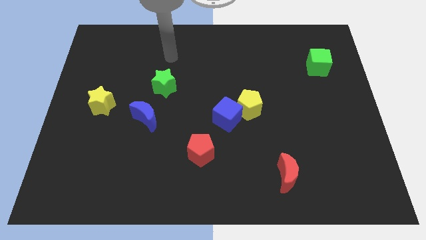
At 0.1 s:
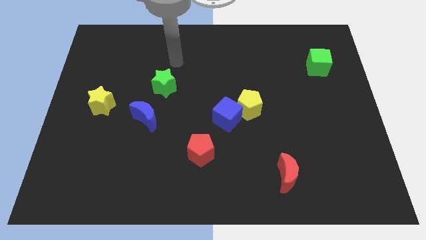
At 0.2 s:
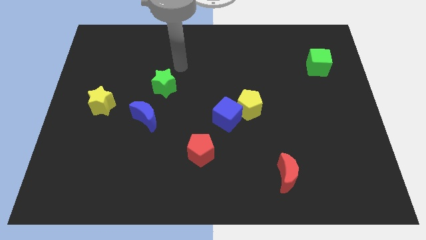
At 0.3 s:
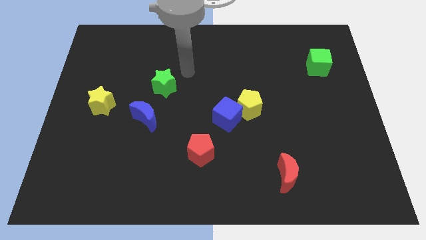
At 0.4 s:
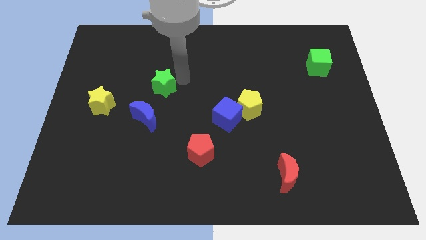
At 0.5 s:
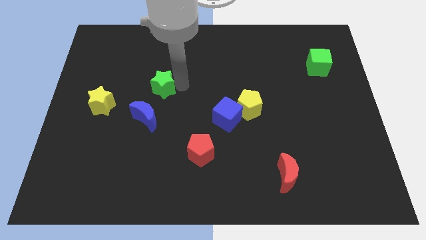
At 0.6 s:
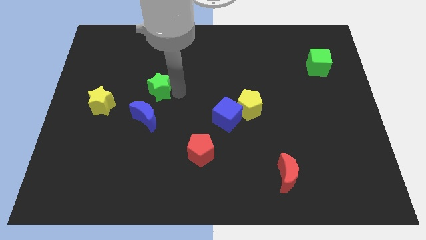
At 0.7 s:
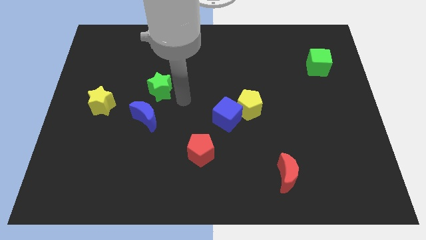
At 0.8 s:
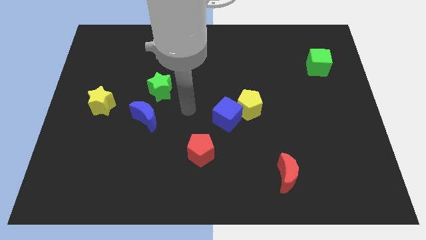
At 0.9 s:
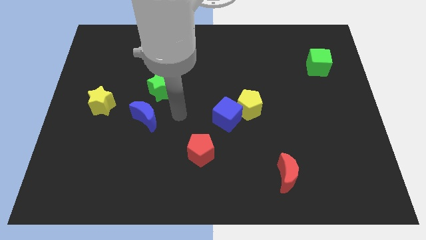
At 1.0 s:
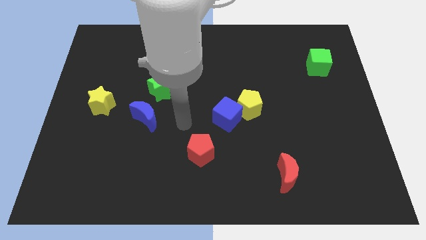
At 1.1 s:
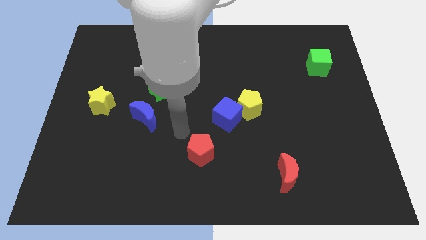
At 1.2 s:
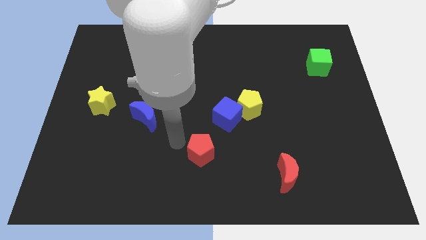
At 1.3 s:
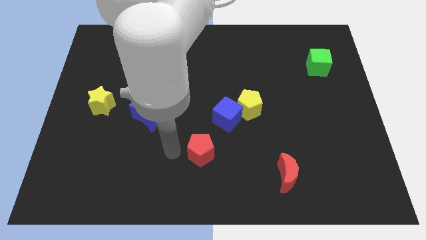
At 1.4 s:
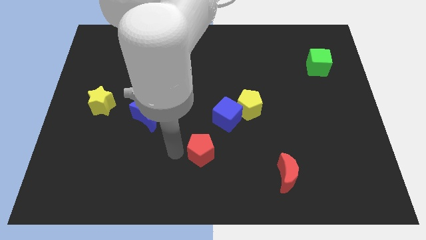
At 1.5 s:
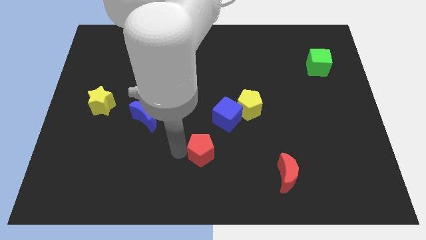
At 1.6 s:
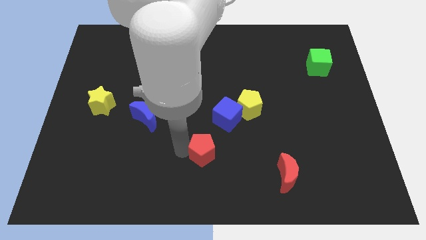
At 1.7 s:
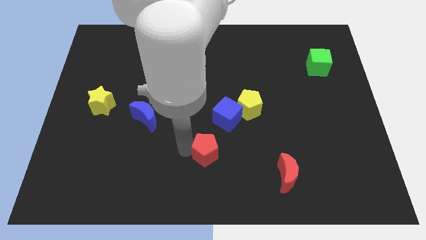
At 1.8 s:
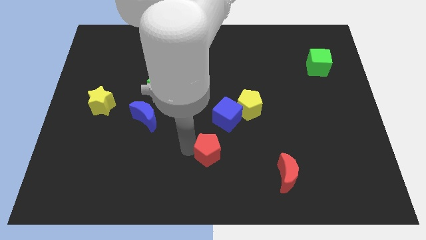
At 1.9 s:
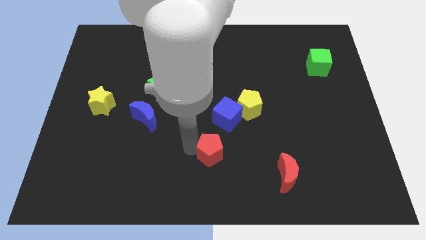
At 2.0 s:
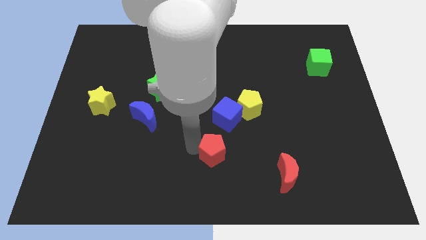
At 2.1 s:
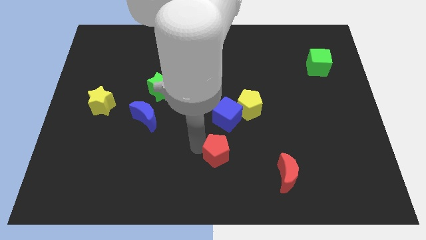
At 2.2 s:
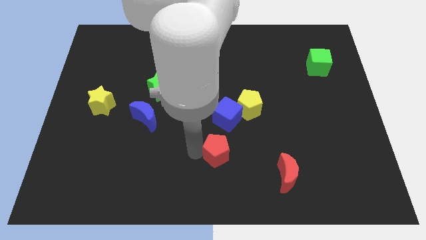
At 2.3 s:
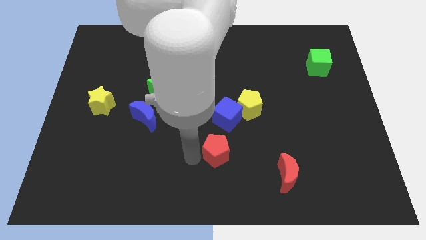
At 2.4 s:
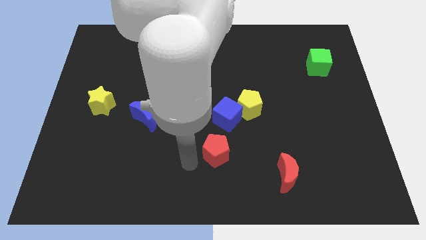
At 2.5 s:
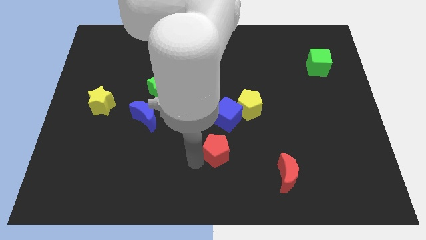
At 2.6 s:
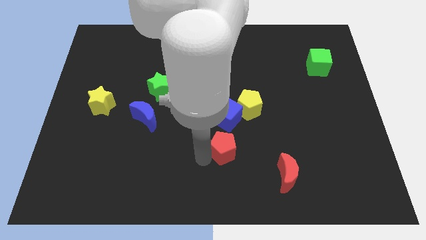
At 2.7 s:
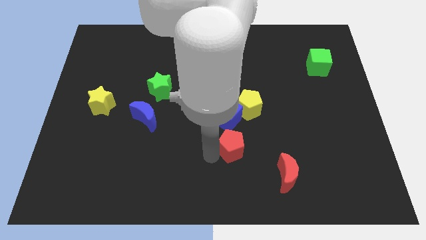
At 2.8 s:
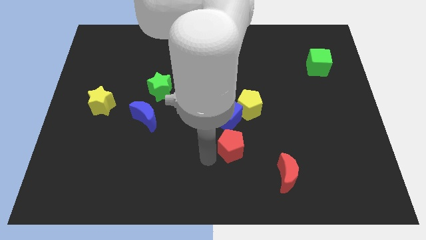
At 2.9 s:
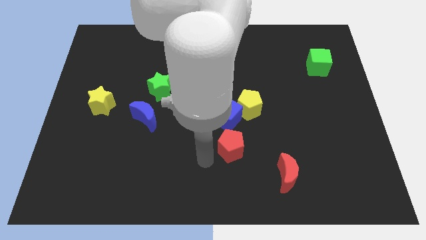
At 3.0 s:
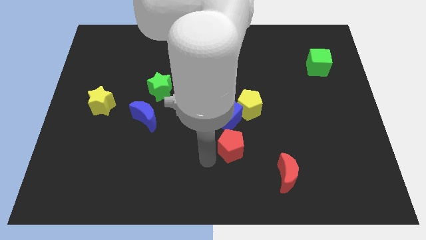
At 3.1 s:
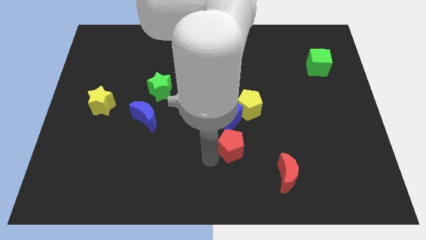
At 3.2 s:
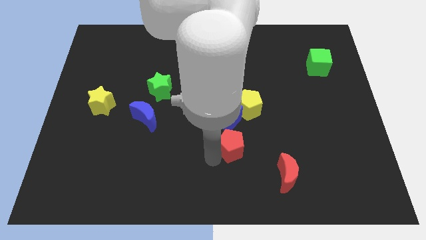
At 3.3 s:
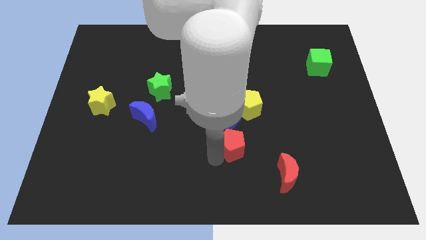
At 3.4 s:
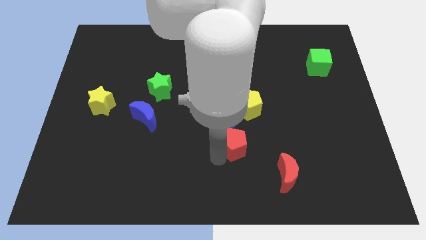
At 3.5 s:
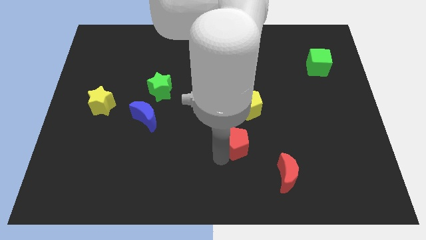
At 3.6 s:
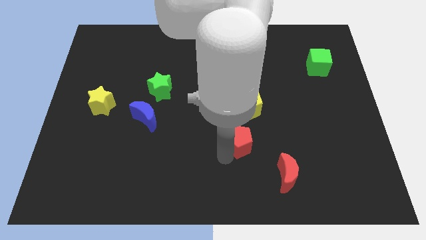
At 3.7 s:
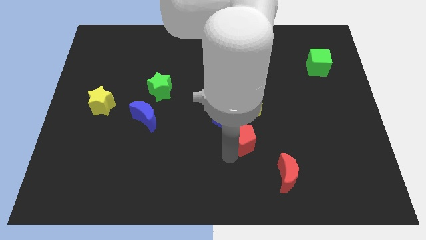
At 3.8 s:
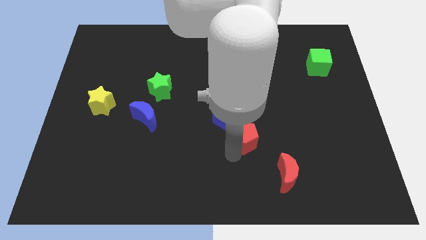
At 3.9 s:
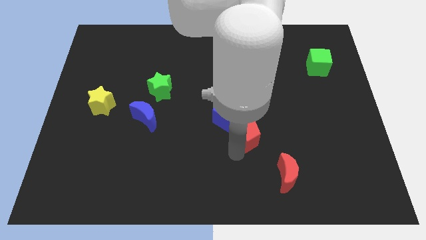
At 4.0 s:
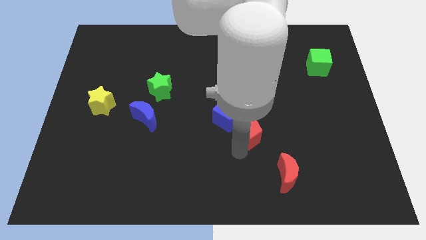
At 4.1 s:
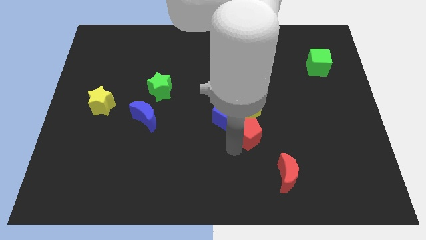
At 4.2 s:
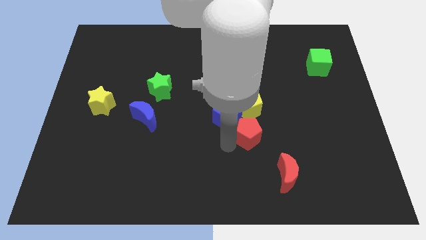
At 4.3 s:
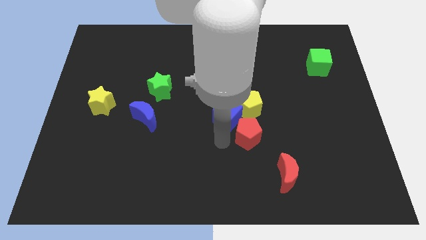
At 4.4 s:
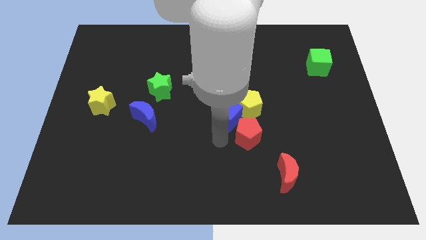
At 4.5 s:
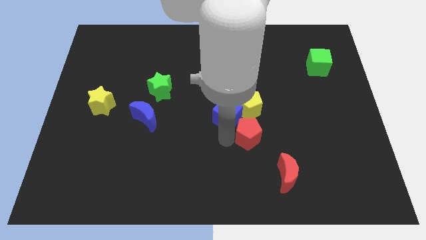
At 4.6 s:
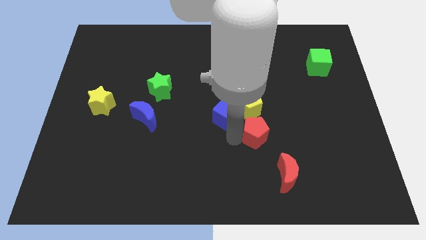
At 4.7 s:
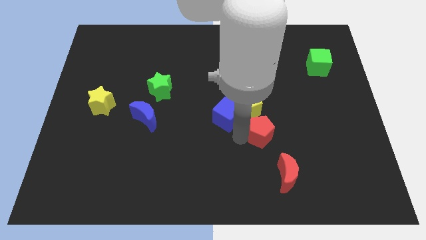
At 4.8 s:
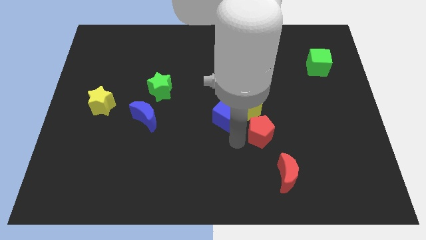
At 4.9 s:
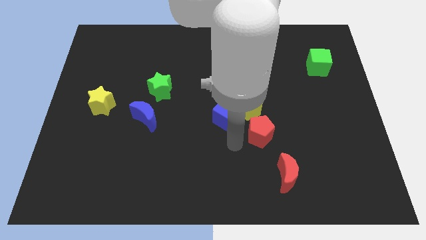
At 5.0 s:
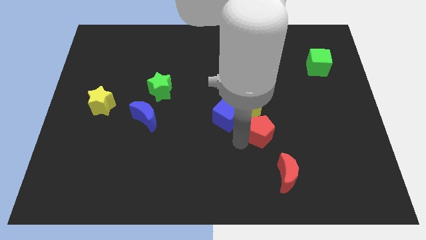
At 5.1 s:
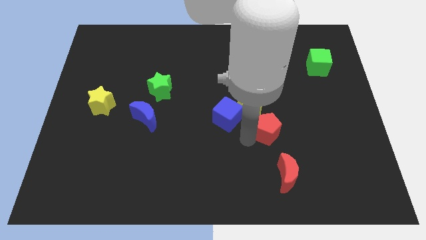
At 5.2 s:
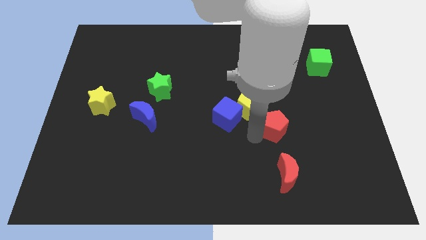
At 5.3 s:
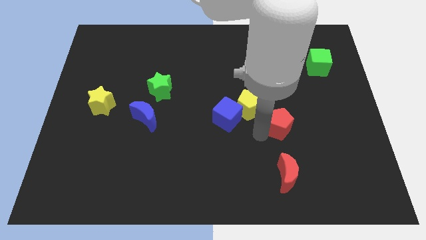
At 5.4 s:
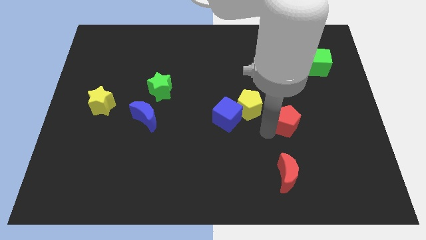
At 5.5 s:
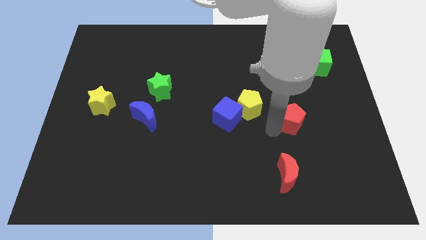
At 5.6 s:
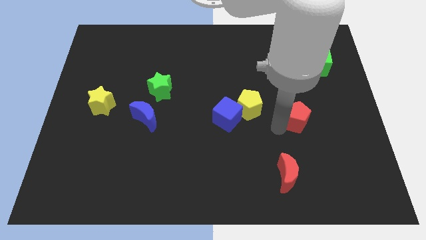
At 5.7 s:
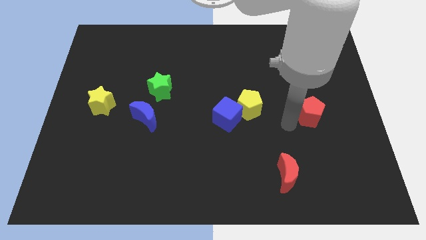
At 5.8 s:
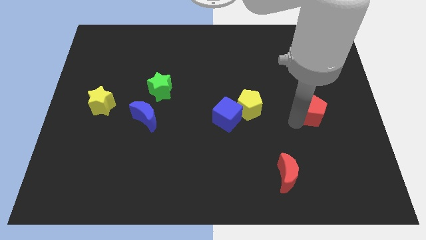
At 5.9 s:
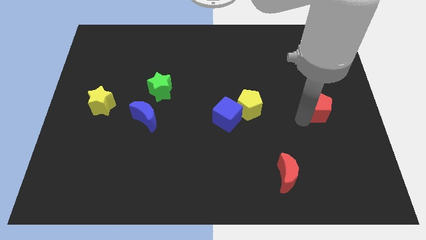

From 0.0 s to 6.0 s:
move the red pentagon to the bottom side of the green cube
